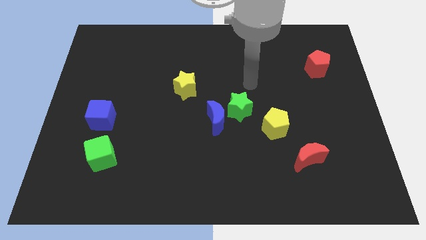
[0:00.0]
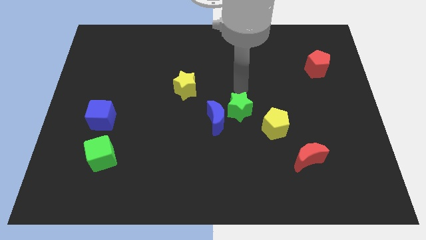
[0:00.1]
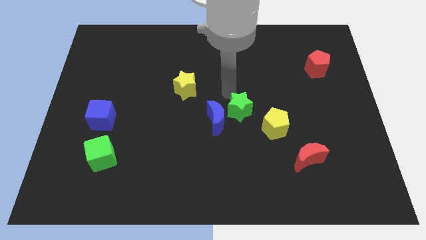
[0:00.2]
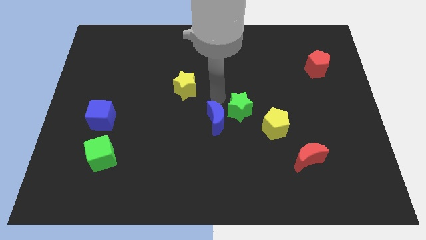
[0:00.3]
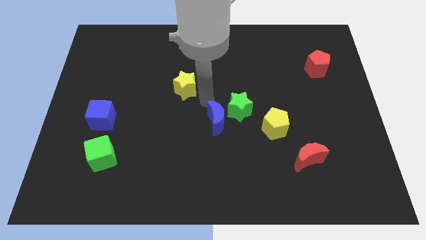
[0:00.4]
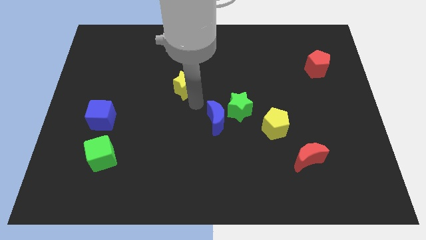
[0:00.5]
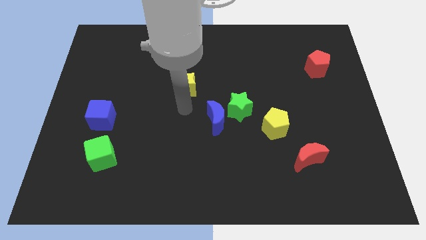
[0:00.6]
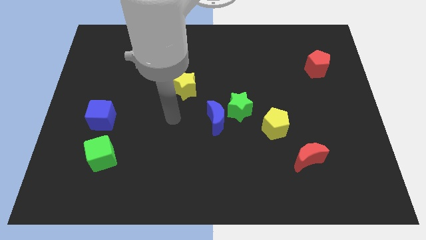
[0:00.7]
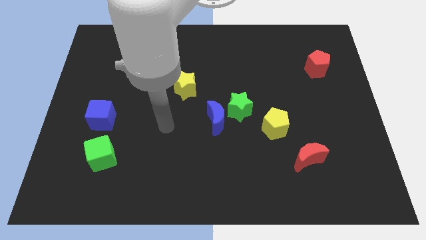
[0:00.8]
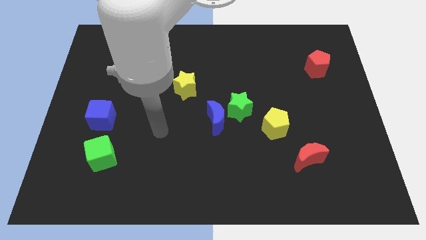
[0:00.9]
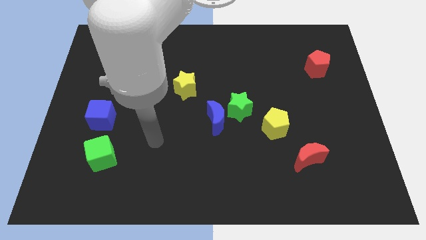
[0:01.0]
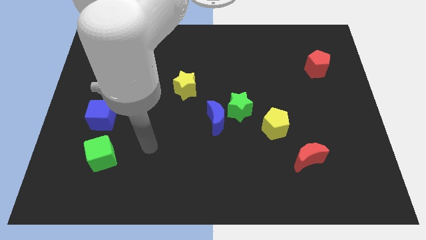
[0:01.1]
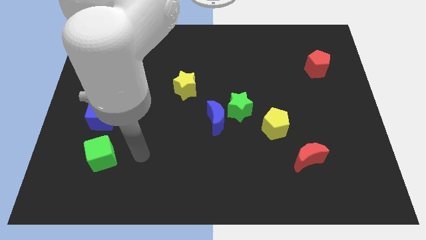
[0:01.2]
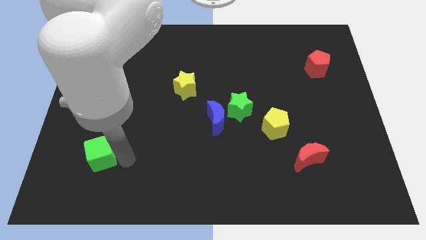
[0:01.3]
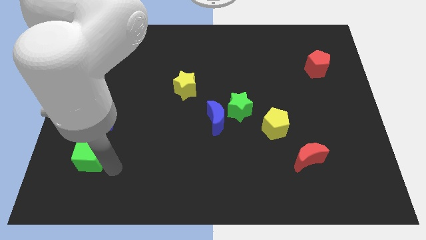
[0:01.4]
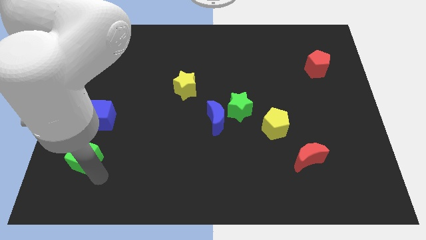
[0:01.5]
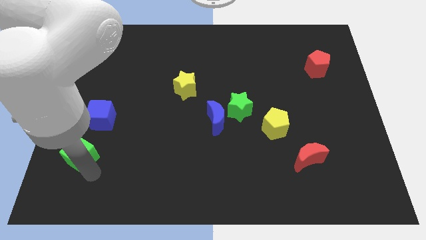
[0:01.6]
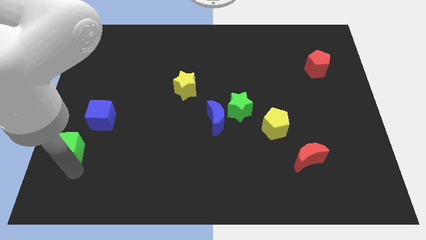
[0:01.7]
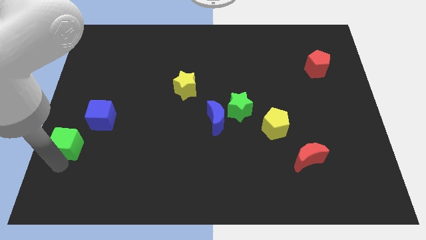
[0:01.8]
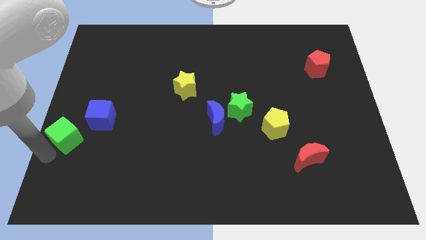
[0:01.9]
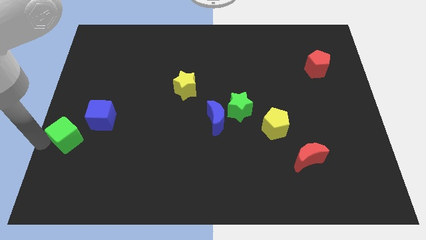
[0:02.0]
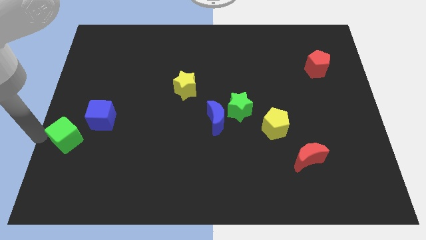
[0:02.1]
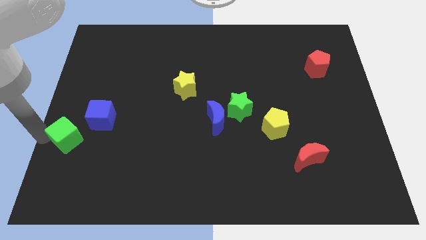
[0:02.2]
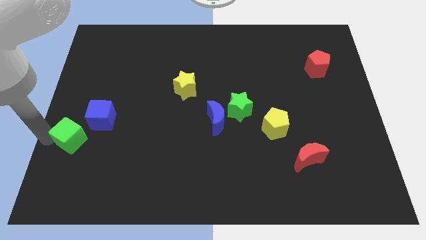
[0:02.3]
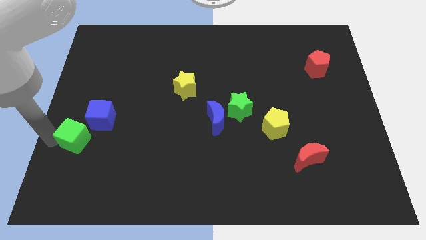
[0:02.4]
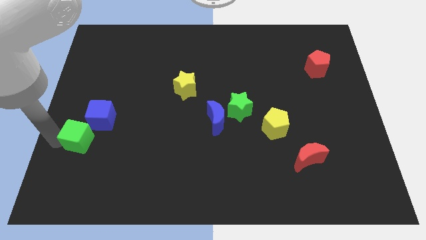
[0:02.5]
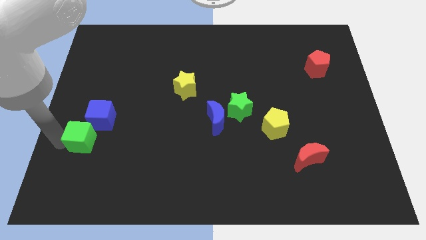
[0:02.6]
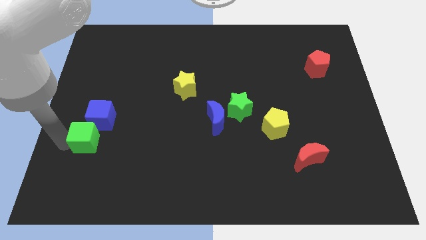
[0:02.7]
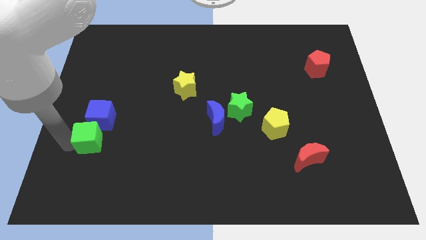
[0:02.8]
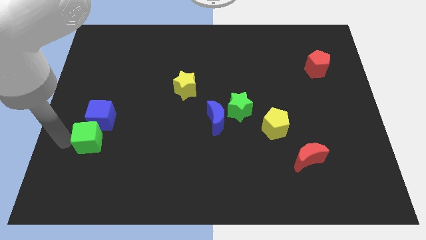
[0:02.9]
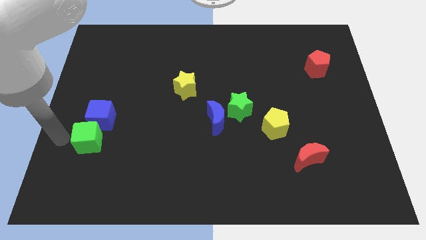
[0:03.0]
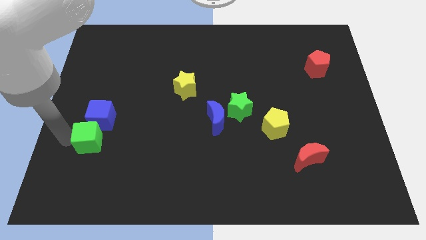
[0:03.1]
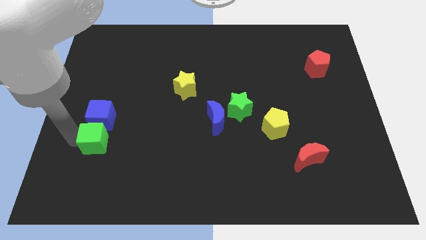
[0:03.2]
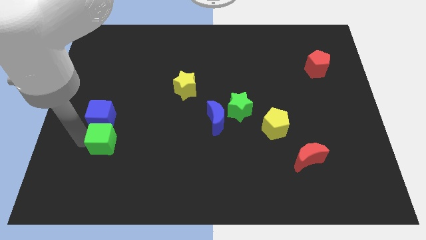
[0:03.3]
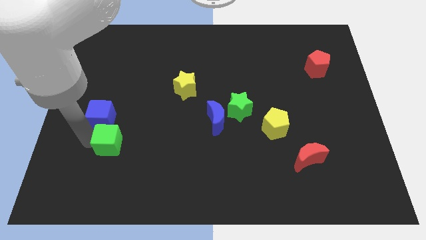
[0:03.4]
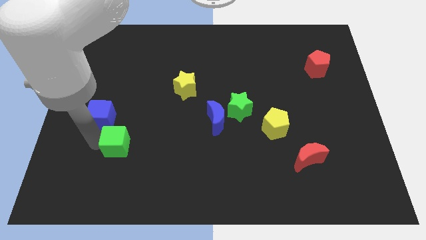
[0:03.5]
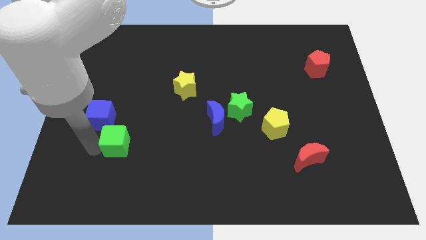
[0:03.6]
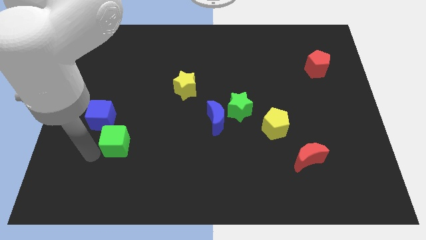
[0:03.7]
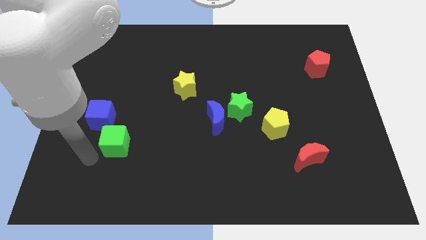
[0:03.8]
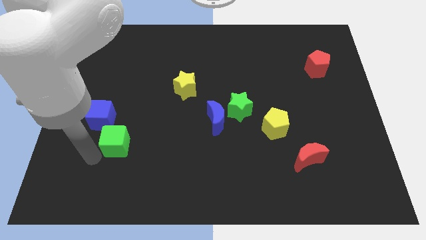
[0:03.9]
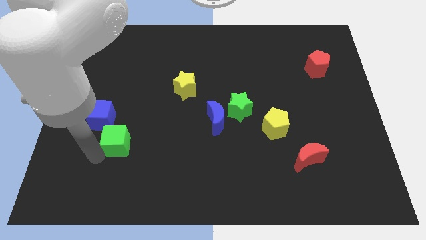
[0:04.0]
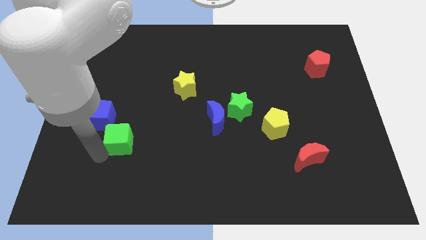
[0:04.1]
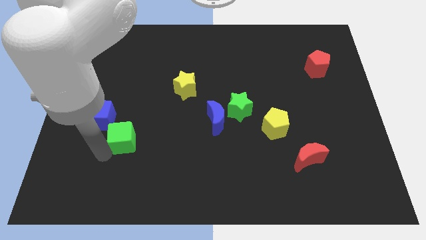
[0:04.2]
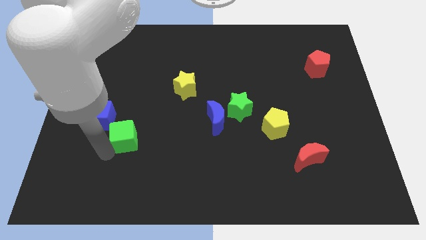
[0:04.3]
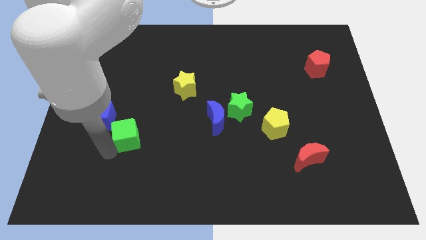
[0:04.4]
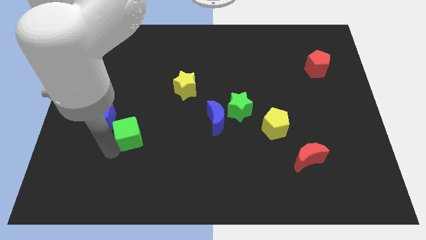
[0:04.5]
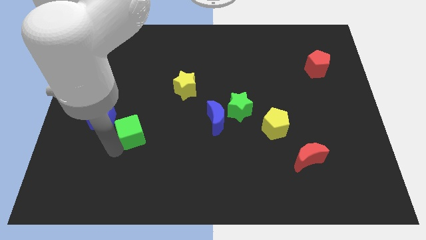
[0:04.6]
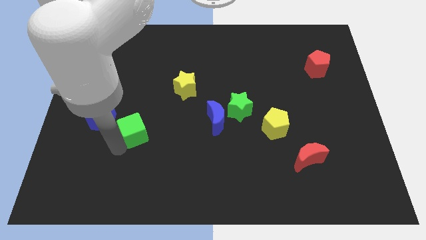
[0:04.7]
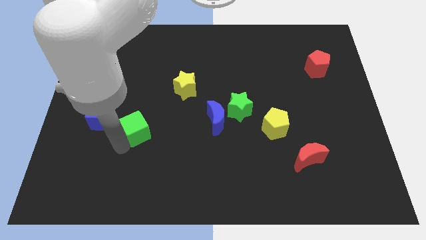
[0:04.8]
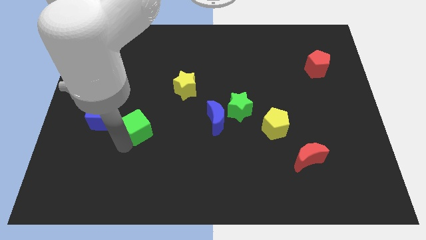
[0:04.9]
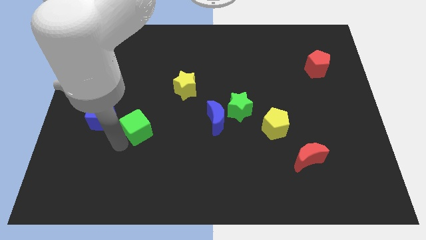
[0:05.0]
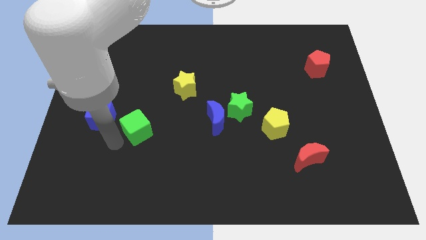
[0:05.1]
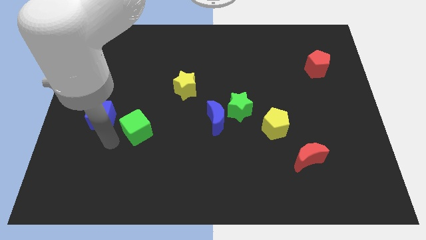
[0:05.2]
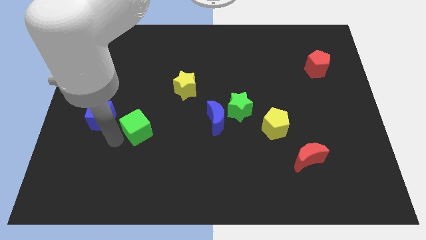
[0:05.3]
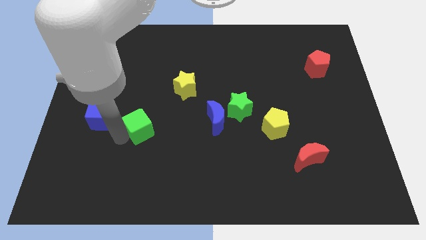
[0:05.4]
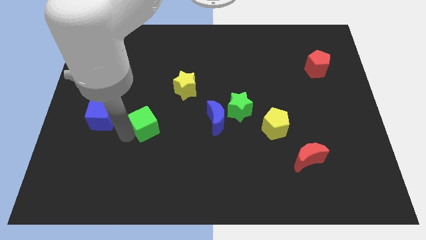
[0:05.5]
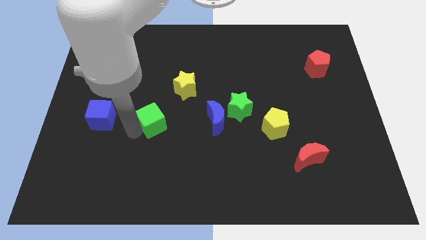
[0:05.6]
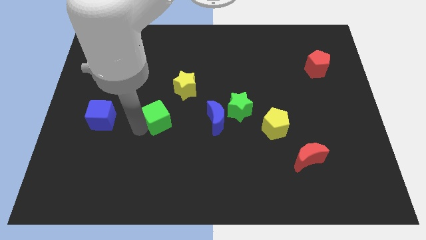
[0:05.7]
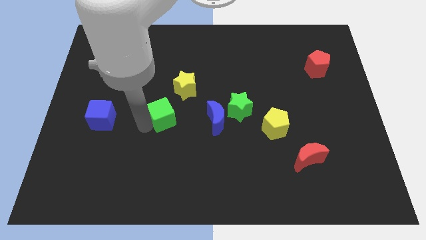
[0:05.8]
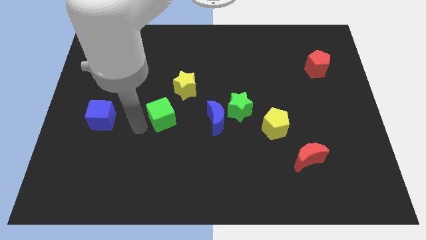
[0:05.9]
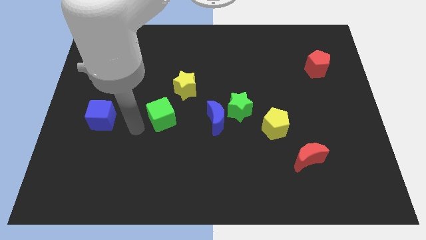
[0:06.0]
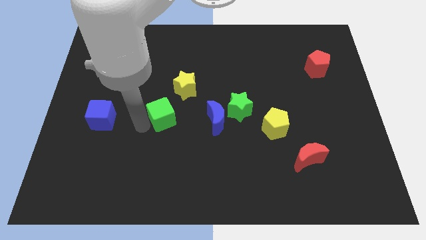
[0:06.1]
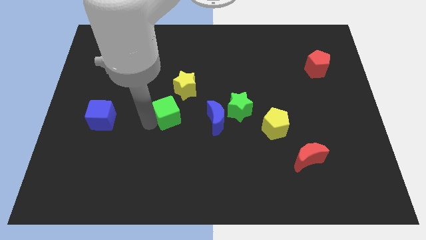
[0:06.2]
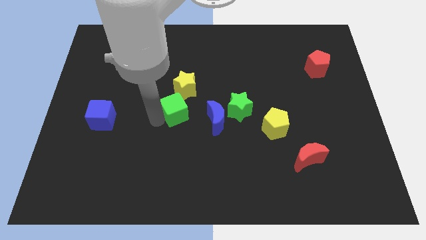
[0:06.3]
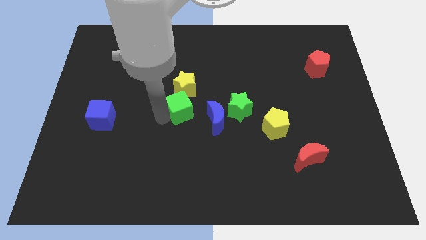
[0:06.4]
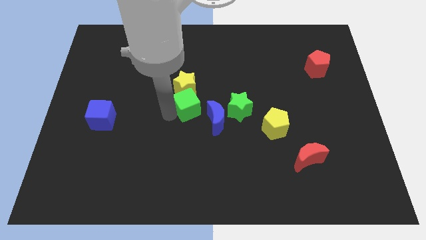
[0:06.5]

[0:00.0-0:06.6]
push the green cube diagonally down and to the right of the yellow star

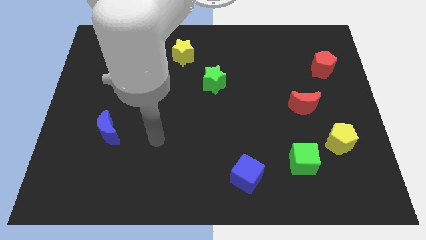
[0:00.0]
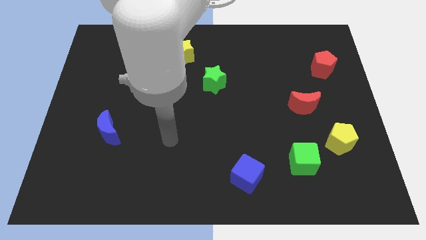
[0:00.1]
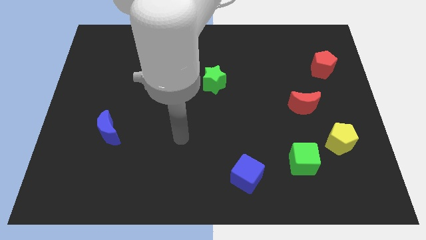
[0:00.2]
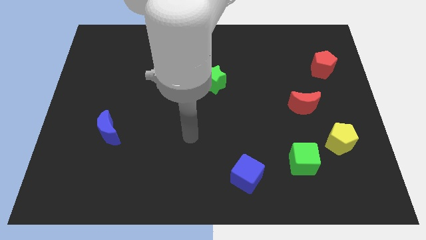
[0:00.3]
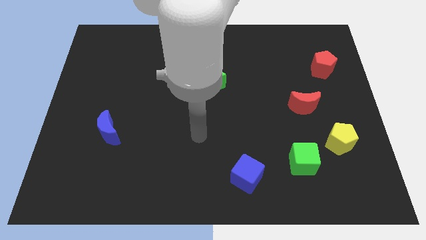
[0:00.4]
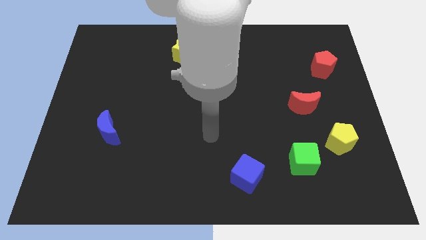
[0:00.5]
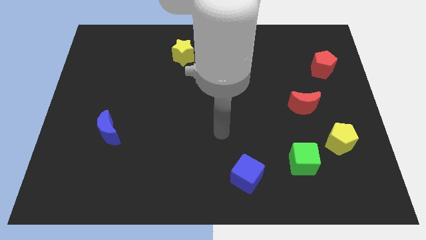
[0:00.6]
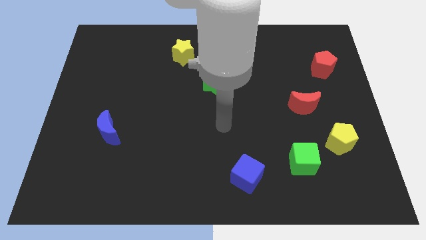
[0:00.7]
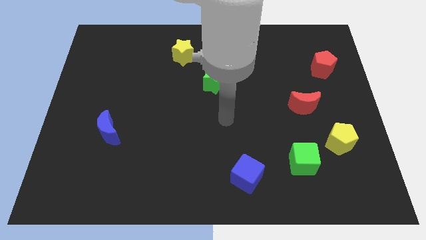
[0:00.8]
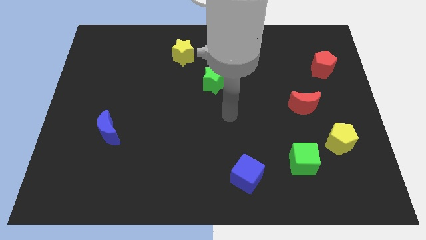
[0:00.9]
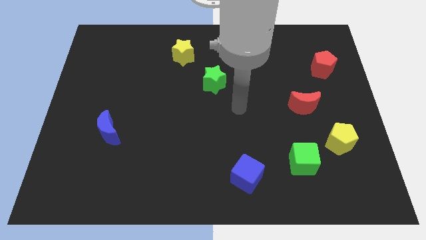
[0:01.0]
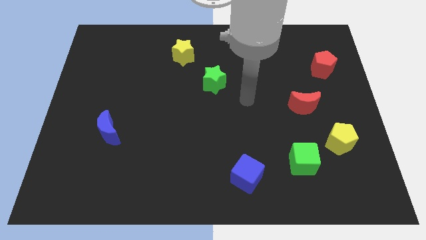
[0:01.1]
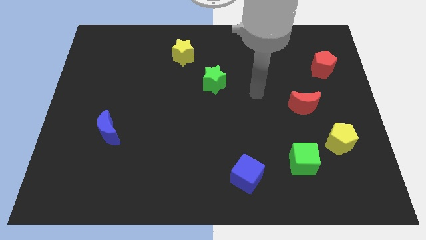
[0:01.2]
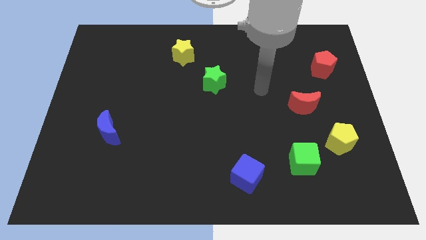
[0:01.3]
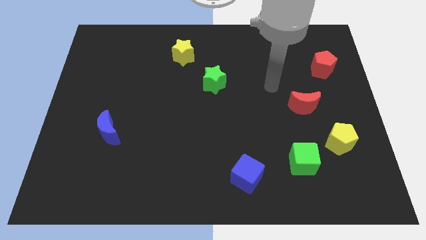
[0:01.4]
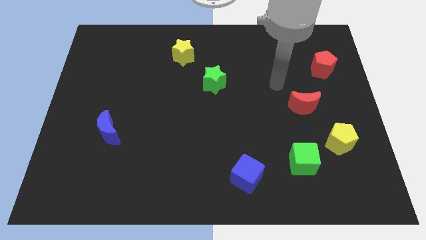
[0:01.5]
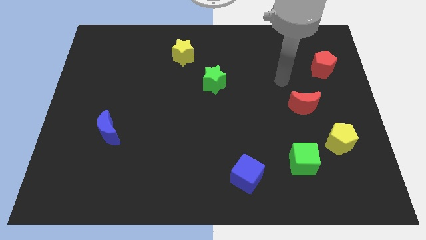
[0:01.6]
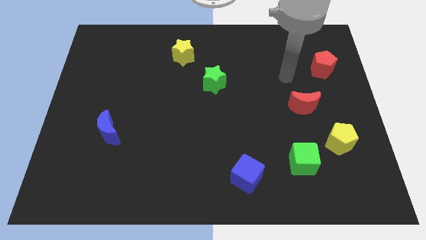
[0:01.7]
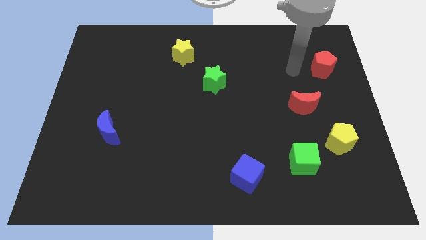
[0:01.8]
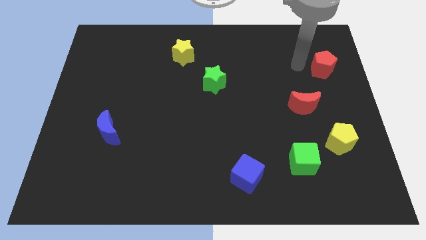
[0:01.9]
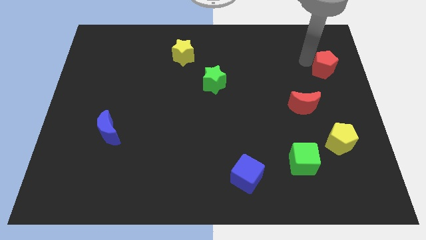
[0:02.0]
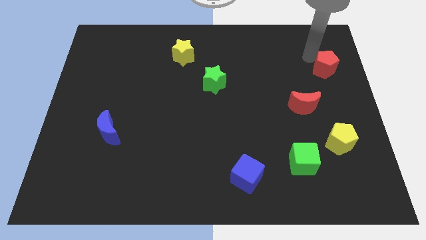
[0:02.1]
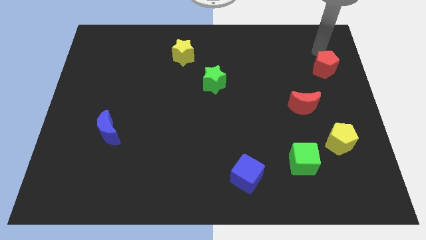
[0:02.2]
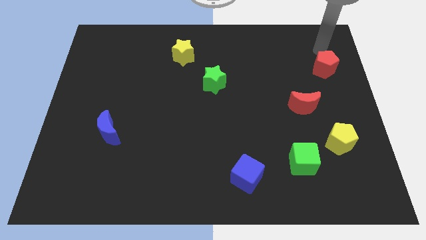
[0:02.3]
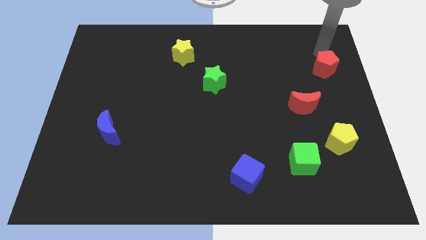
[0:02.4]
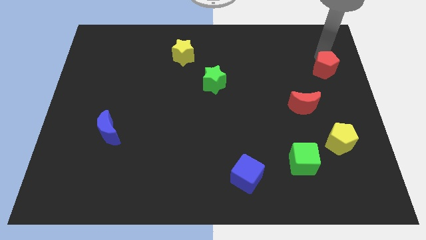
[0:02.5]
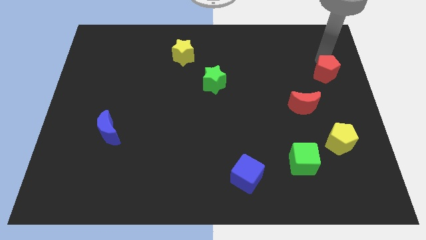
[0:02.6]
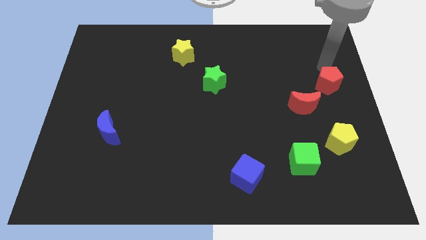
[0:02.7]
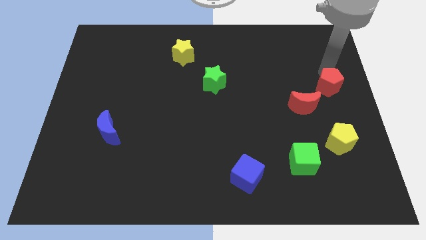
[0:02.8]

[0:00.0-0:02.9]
slide the red pentagon to the top side of the yellow pentagon
